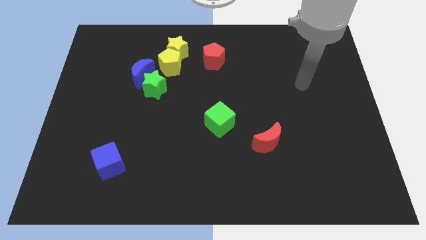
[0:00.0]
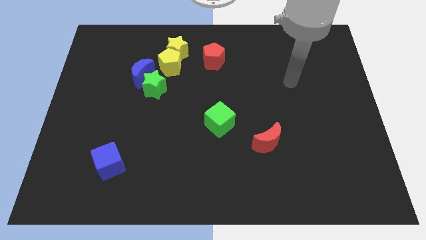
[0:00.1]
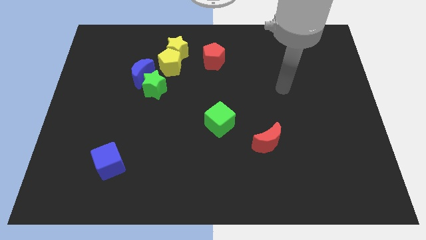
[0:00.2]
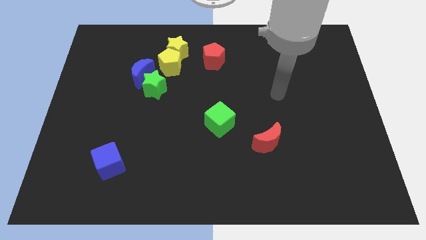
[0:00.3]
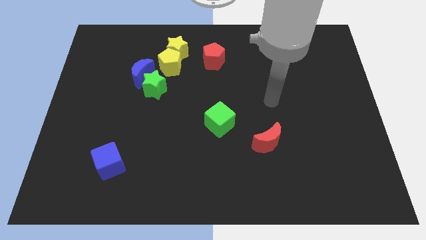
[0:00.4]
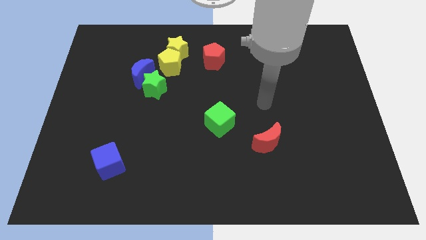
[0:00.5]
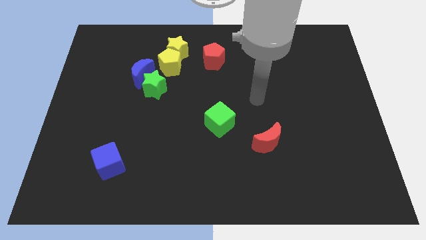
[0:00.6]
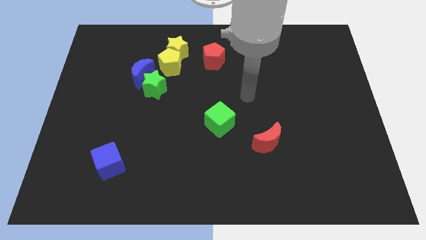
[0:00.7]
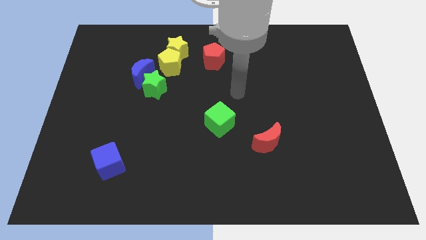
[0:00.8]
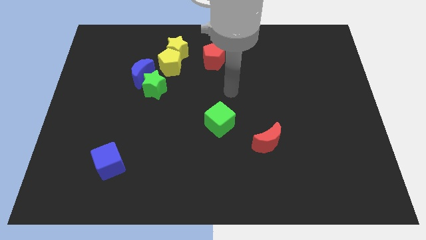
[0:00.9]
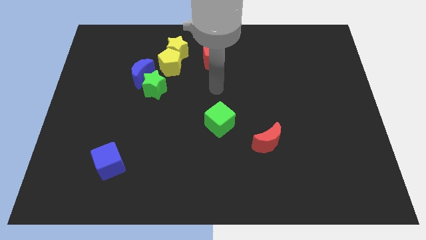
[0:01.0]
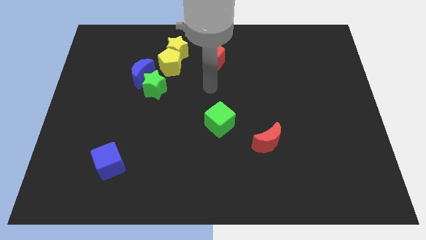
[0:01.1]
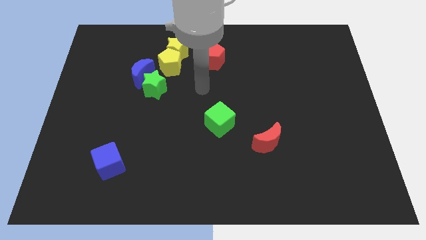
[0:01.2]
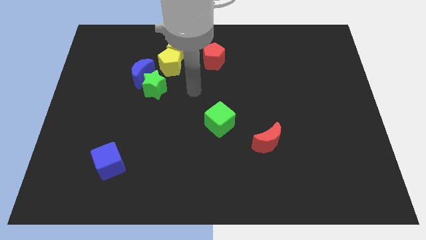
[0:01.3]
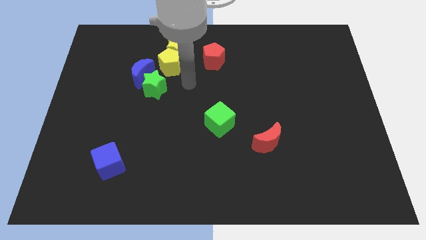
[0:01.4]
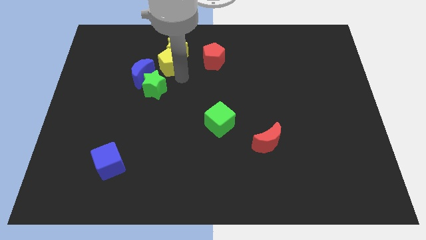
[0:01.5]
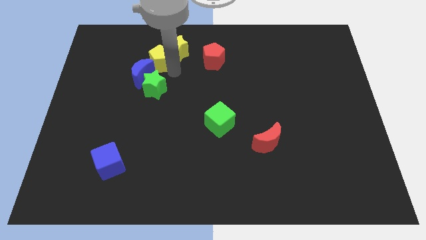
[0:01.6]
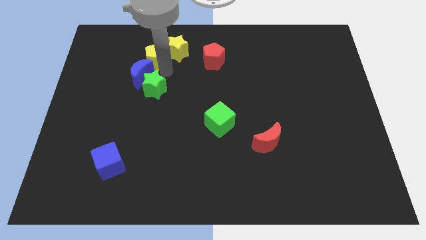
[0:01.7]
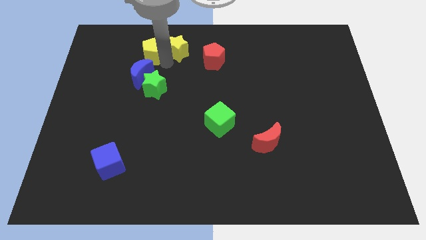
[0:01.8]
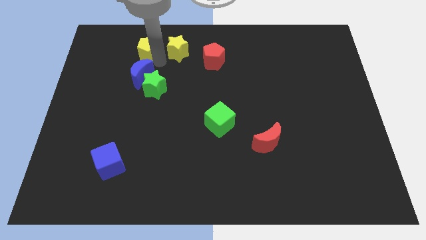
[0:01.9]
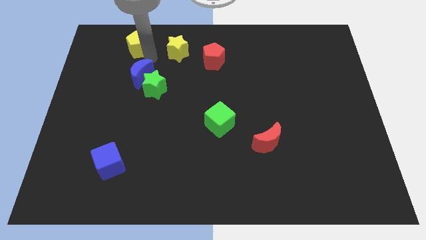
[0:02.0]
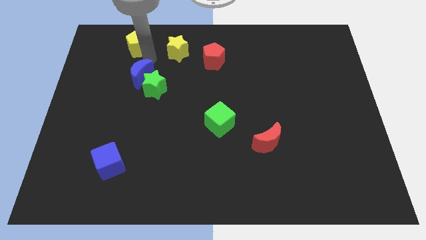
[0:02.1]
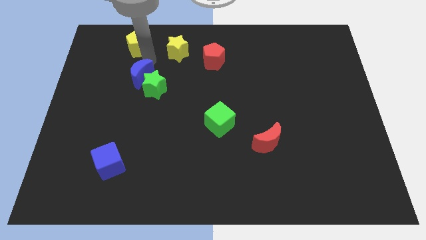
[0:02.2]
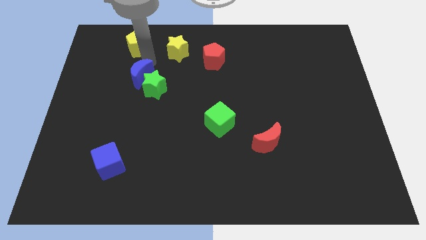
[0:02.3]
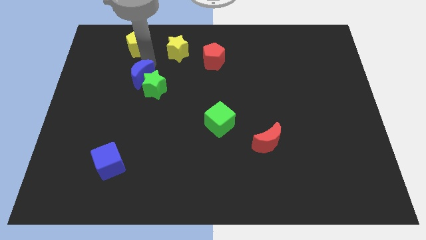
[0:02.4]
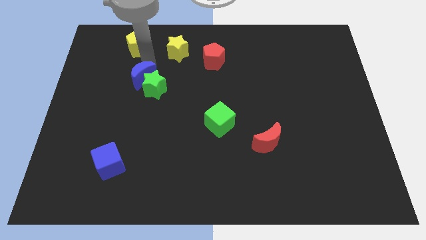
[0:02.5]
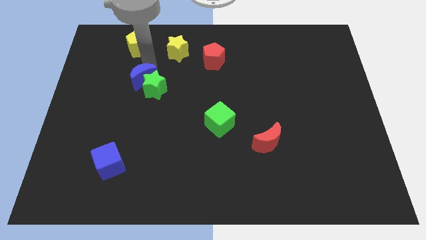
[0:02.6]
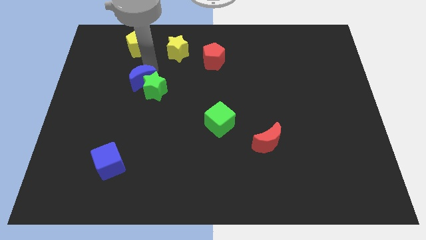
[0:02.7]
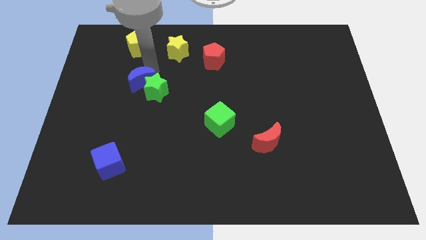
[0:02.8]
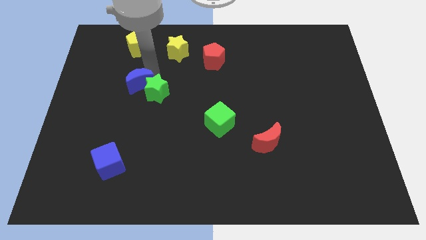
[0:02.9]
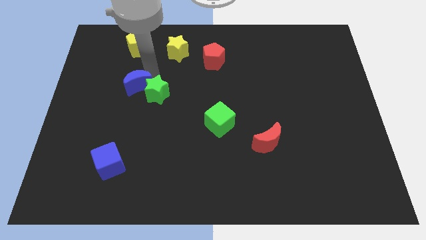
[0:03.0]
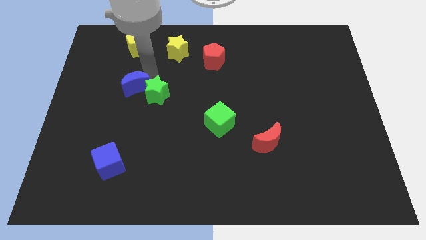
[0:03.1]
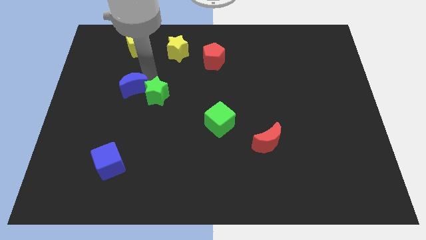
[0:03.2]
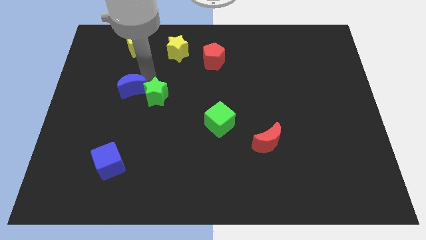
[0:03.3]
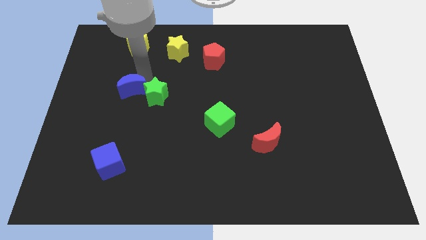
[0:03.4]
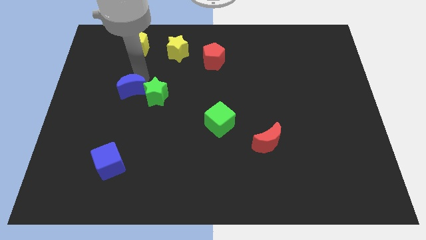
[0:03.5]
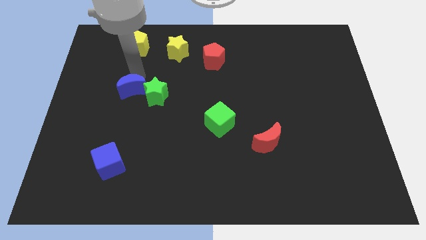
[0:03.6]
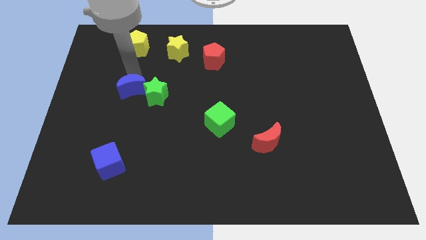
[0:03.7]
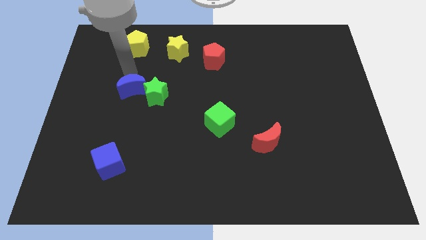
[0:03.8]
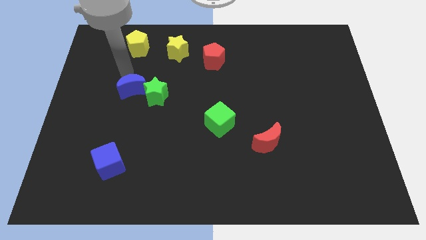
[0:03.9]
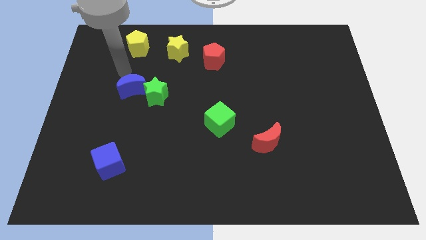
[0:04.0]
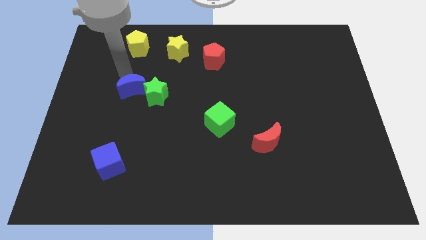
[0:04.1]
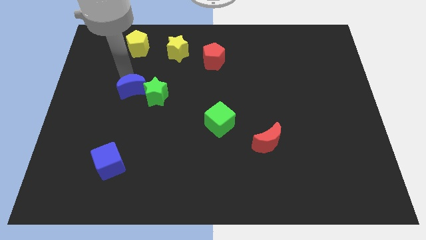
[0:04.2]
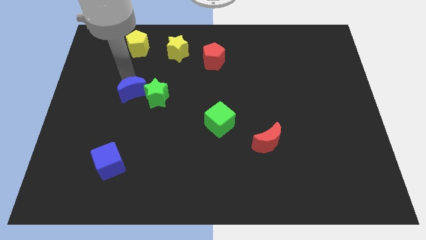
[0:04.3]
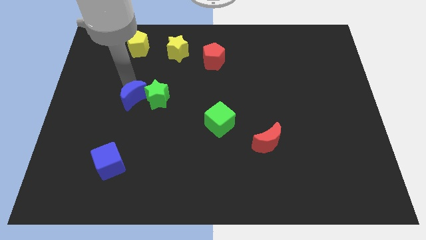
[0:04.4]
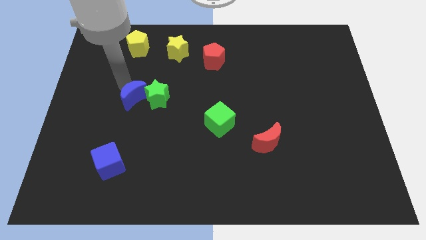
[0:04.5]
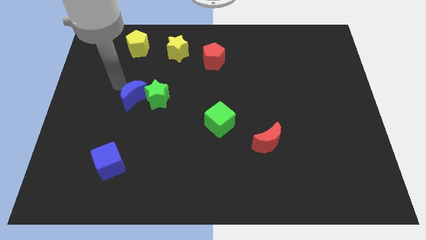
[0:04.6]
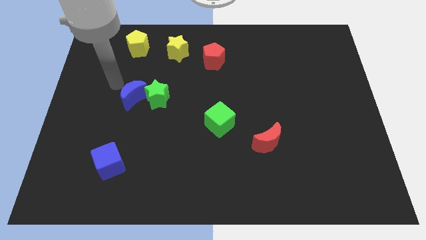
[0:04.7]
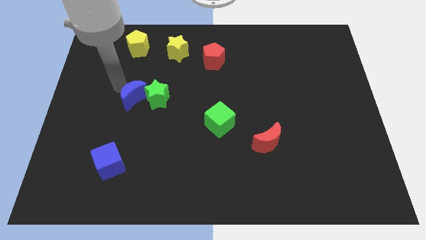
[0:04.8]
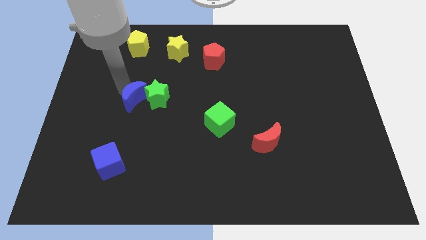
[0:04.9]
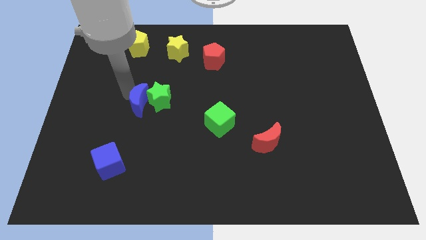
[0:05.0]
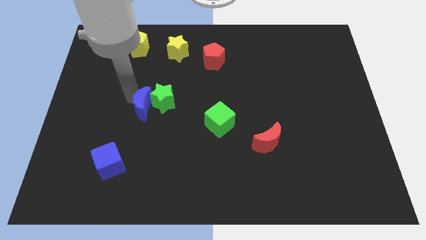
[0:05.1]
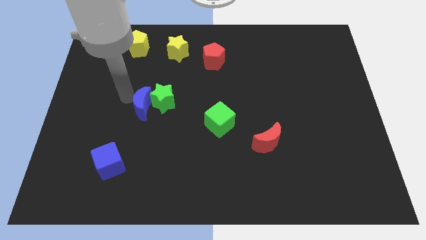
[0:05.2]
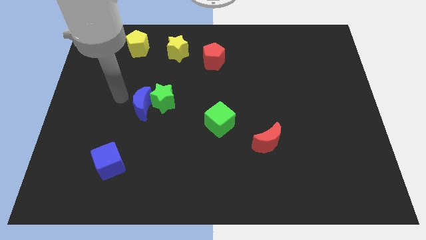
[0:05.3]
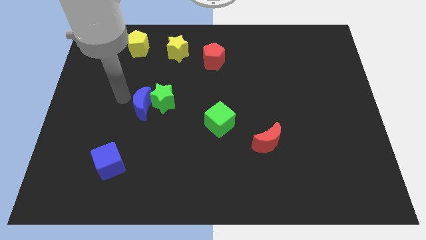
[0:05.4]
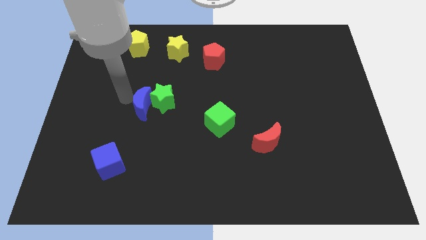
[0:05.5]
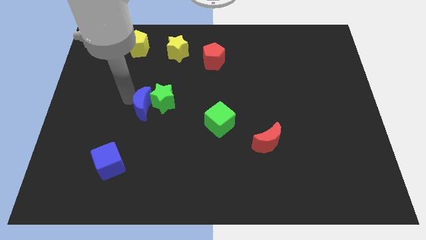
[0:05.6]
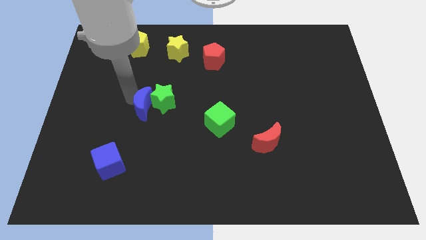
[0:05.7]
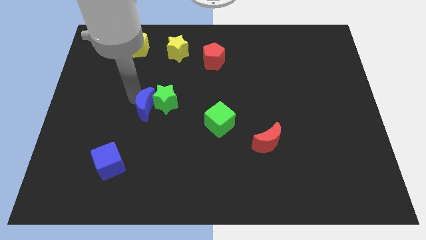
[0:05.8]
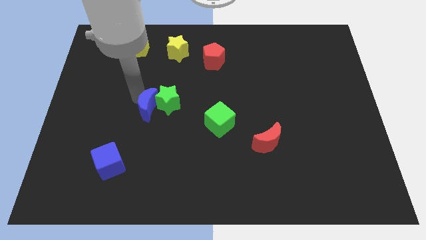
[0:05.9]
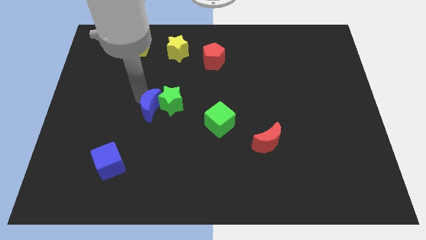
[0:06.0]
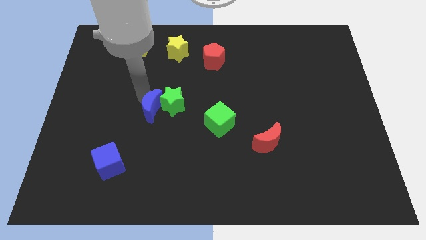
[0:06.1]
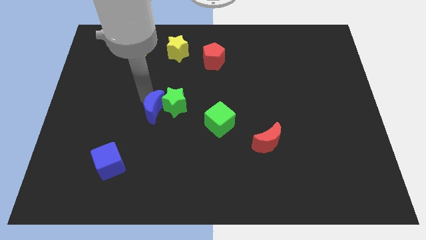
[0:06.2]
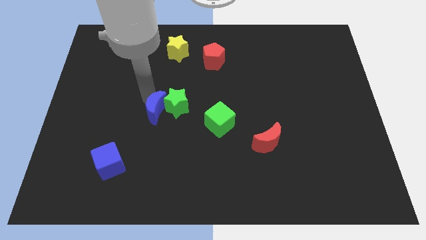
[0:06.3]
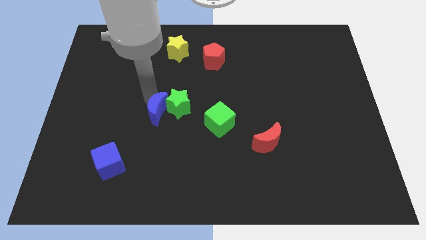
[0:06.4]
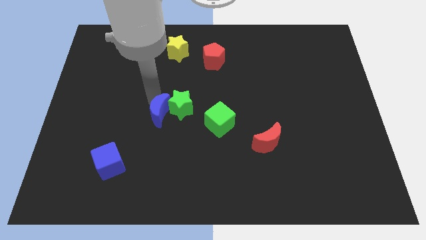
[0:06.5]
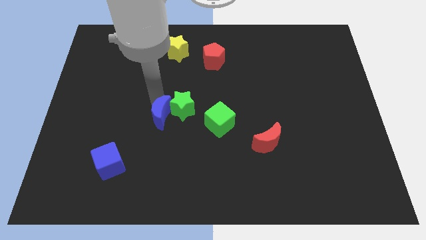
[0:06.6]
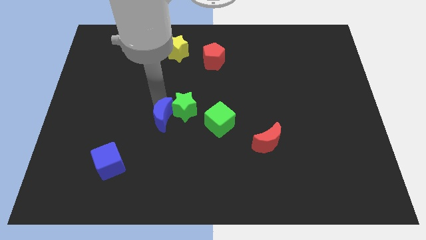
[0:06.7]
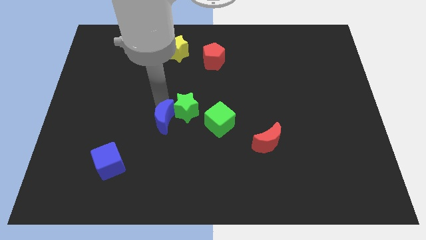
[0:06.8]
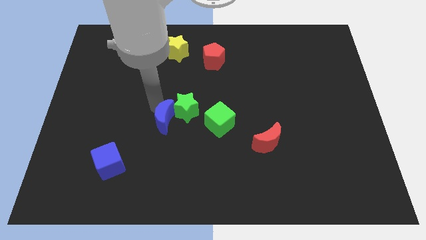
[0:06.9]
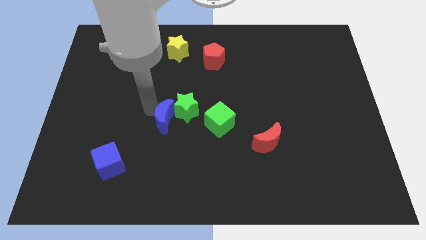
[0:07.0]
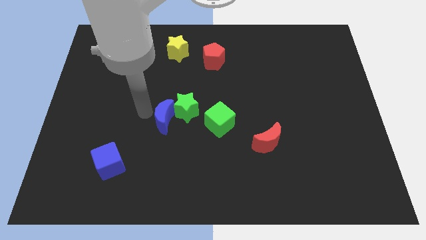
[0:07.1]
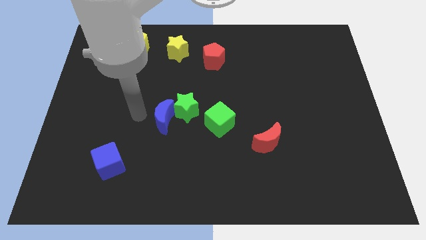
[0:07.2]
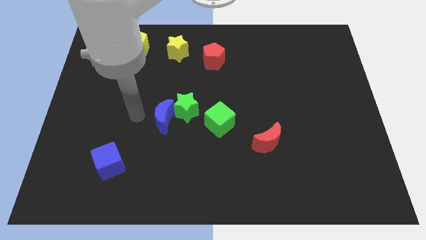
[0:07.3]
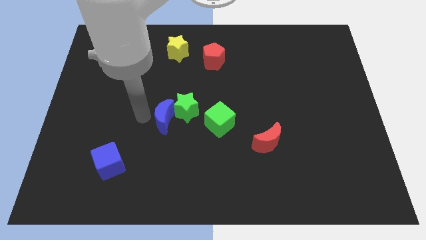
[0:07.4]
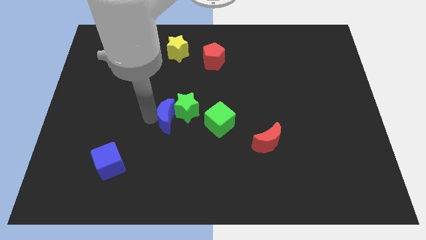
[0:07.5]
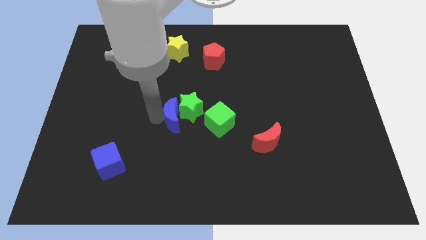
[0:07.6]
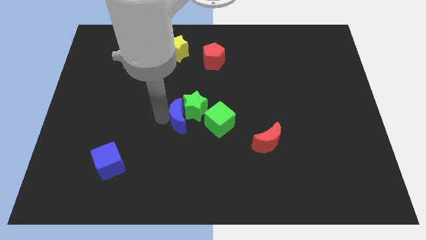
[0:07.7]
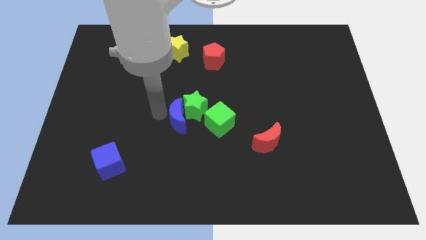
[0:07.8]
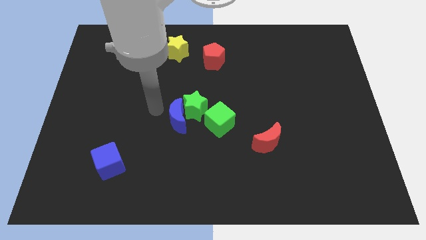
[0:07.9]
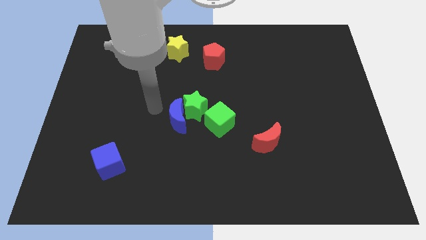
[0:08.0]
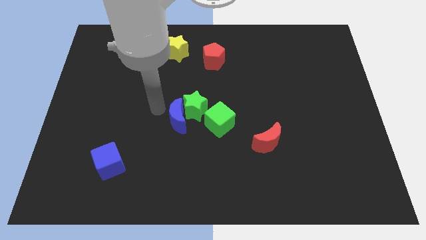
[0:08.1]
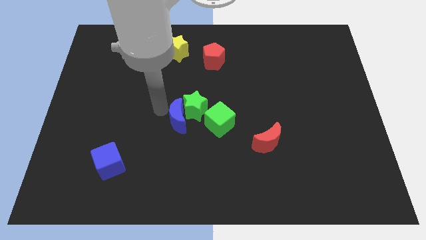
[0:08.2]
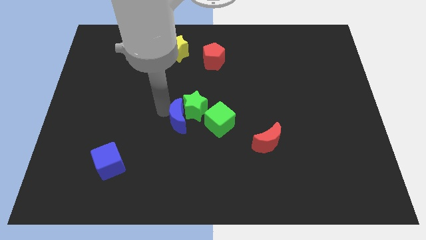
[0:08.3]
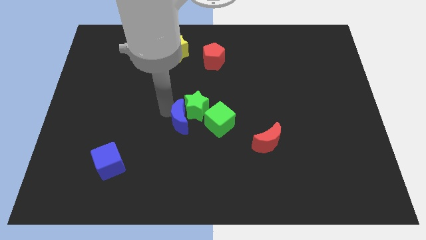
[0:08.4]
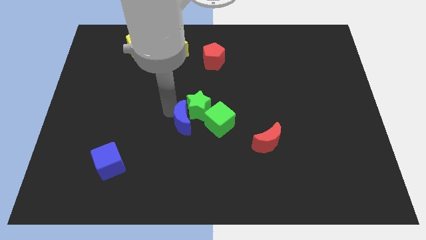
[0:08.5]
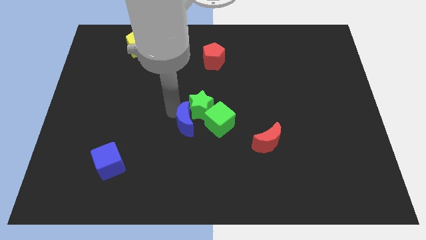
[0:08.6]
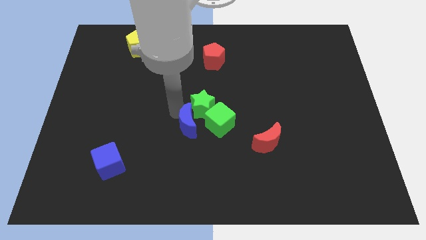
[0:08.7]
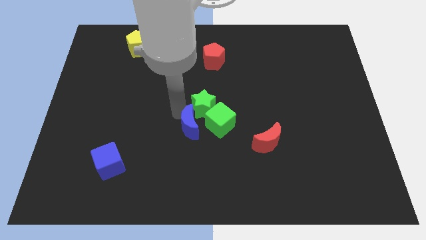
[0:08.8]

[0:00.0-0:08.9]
slide the blue moon downwards and then to the right
